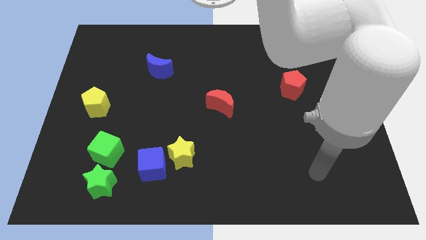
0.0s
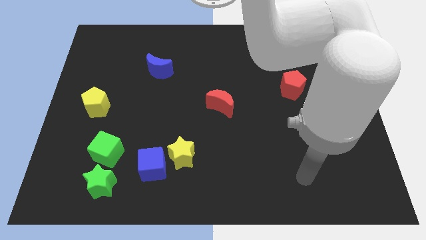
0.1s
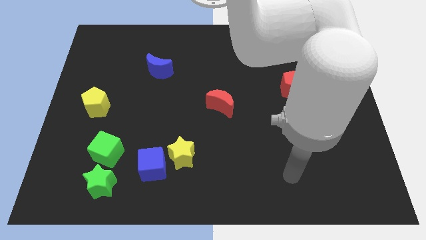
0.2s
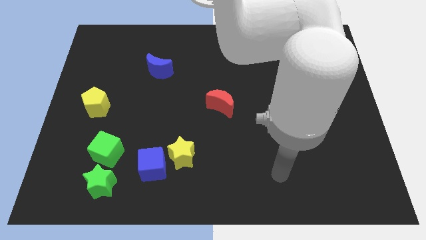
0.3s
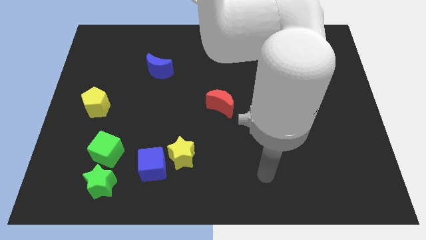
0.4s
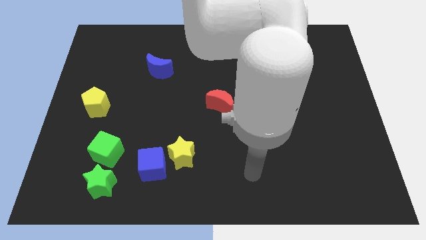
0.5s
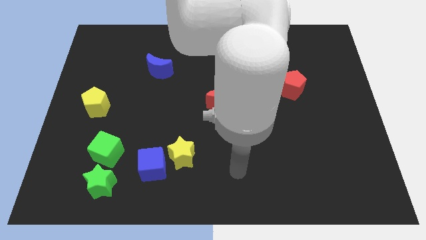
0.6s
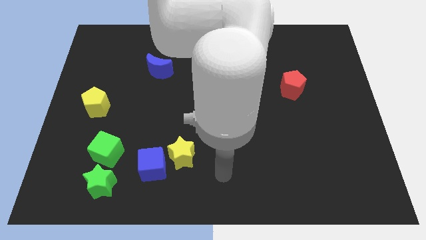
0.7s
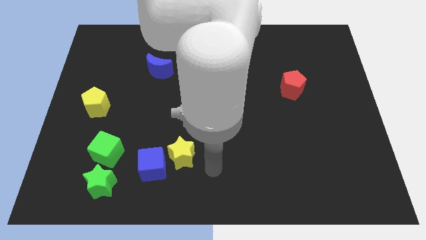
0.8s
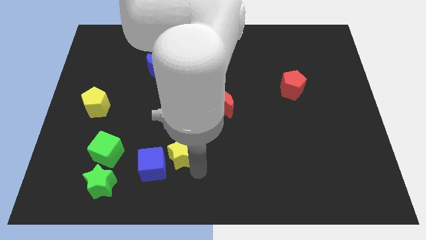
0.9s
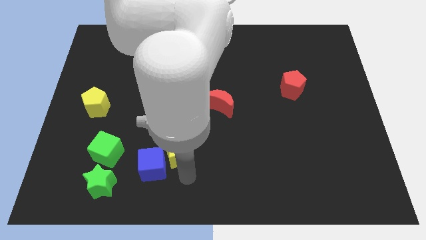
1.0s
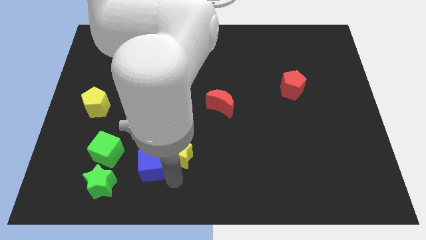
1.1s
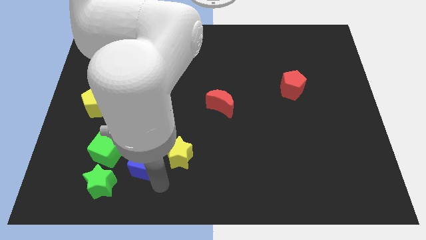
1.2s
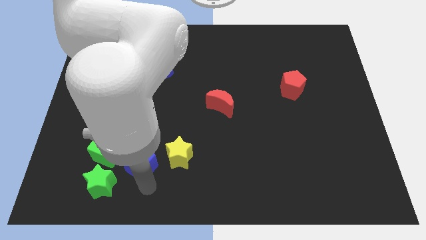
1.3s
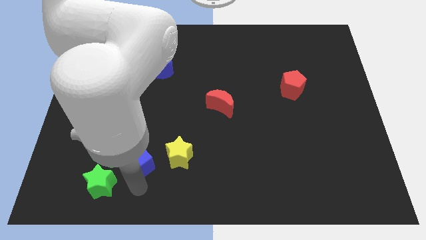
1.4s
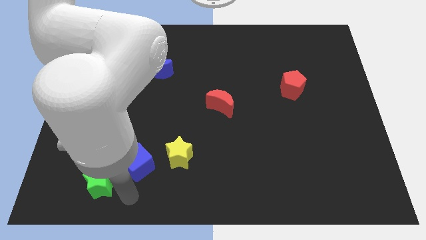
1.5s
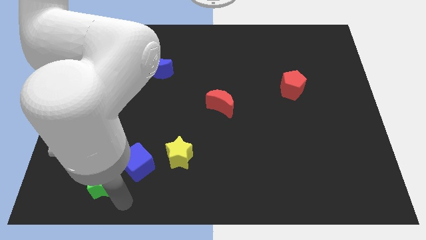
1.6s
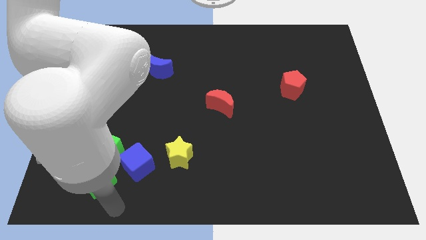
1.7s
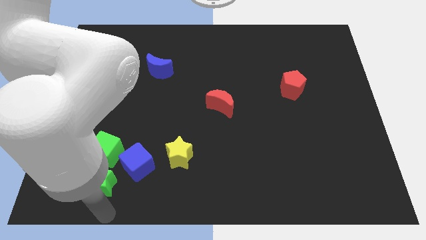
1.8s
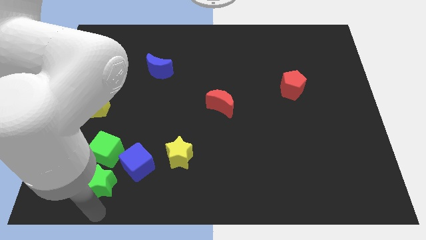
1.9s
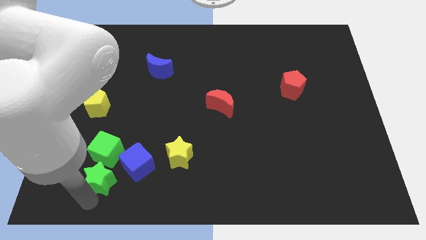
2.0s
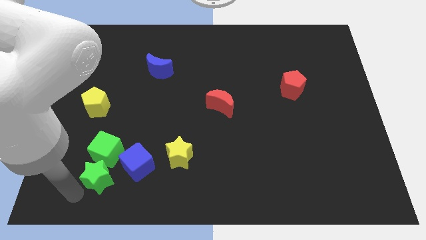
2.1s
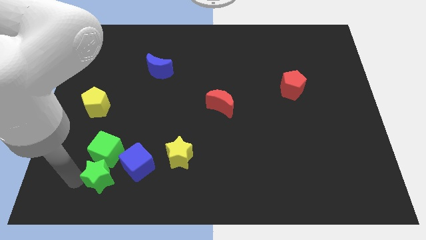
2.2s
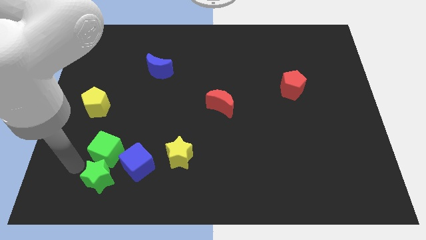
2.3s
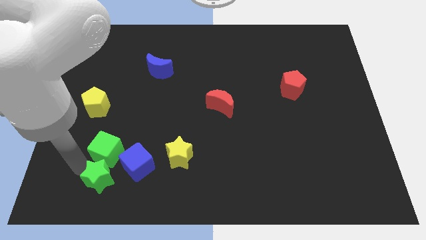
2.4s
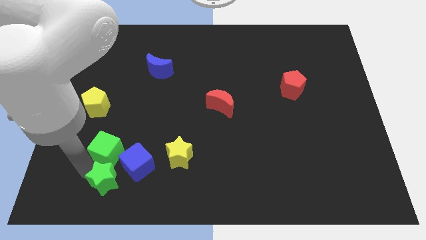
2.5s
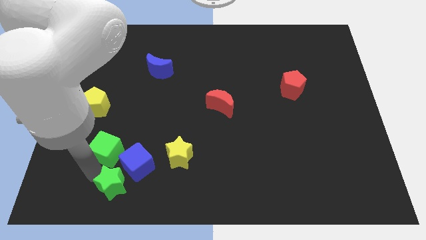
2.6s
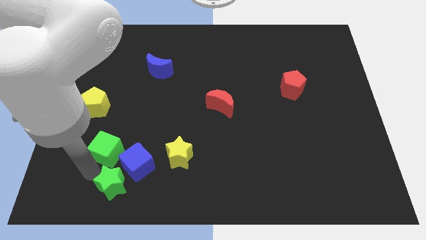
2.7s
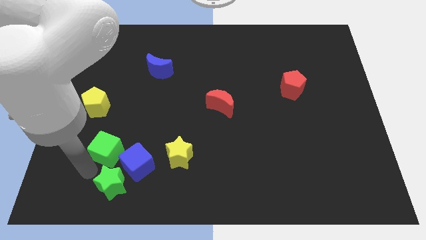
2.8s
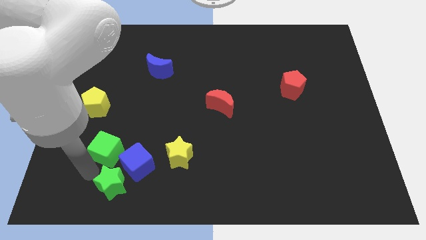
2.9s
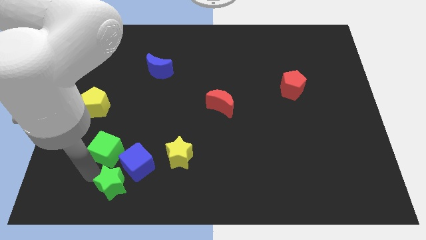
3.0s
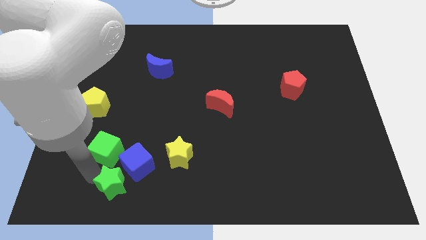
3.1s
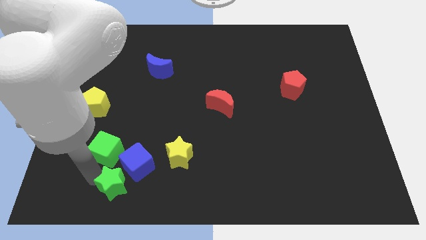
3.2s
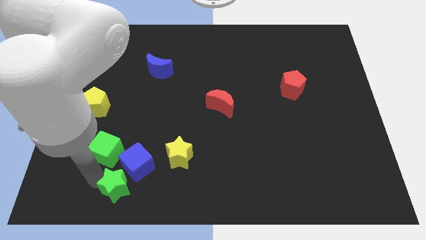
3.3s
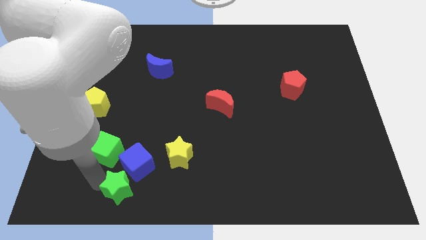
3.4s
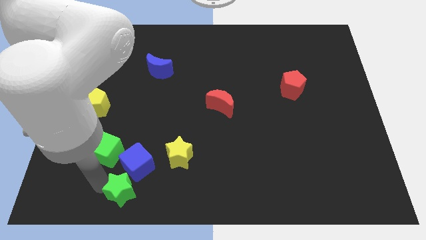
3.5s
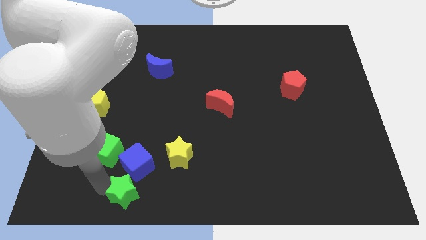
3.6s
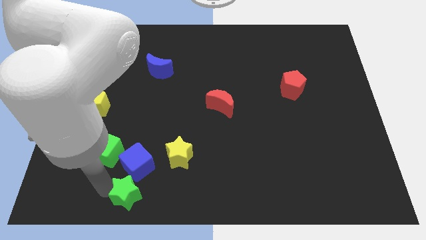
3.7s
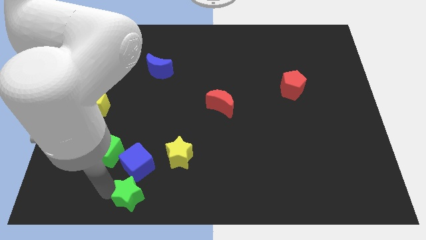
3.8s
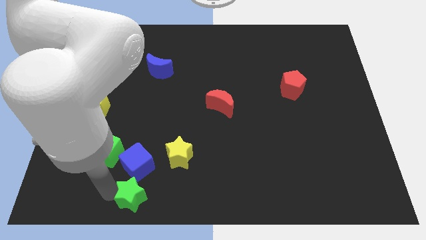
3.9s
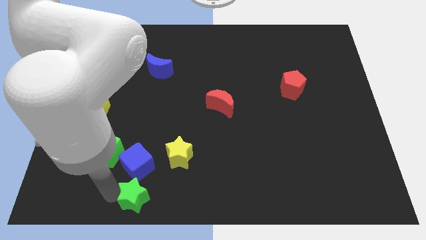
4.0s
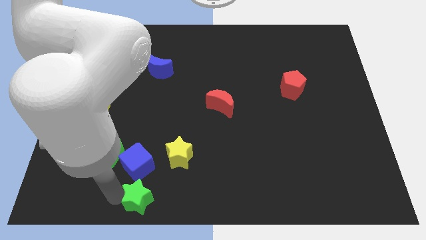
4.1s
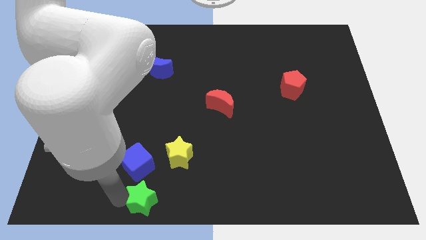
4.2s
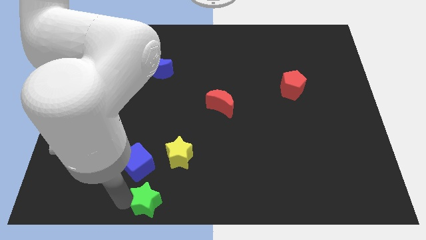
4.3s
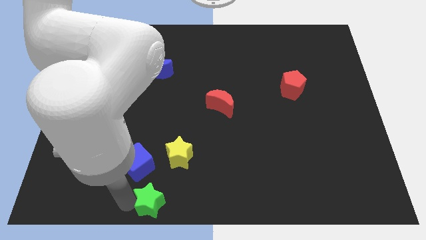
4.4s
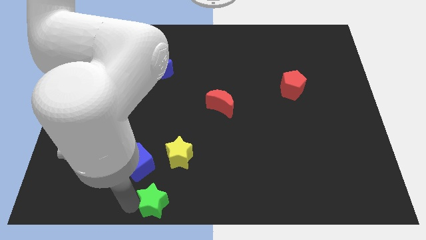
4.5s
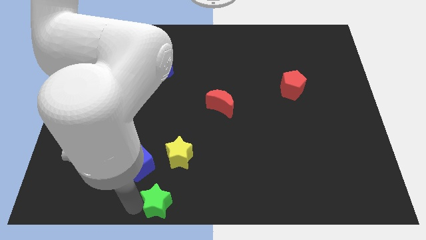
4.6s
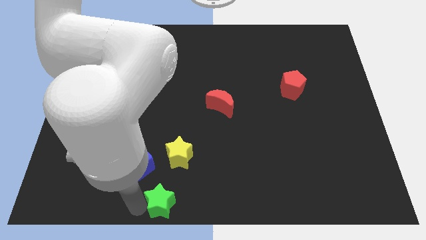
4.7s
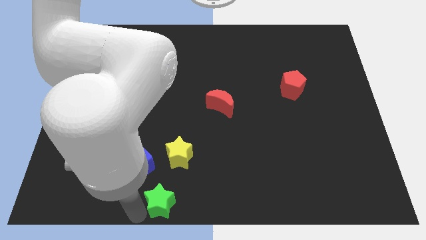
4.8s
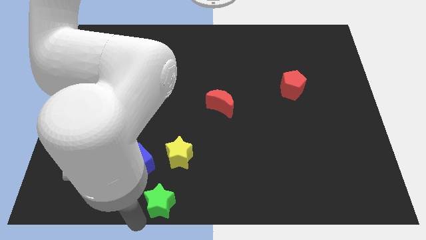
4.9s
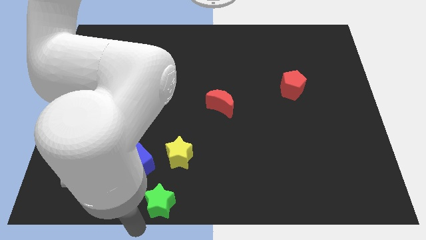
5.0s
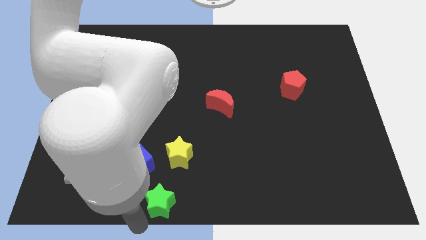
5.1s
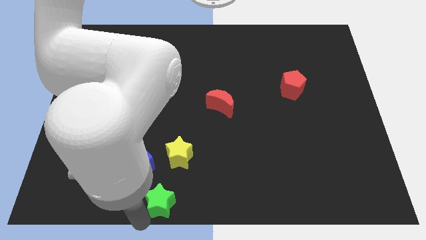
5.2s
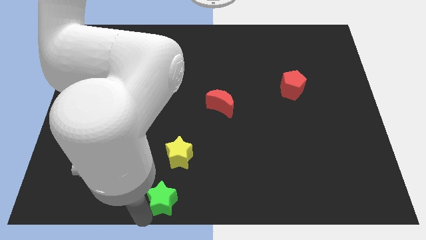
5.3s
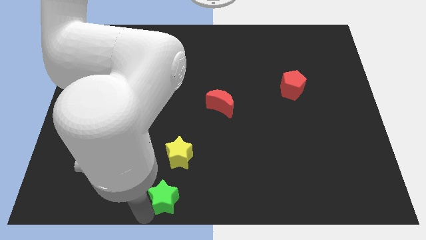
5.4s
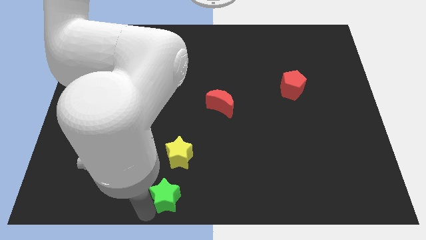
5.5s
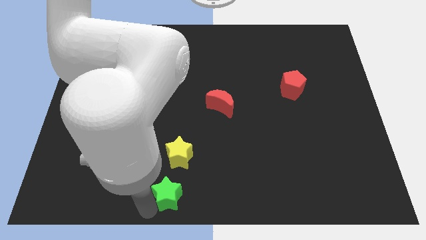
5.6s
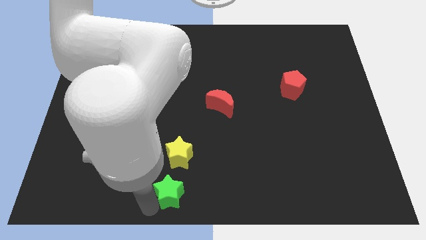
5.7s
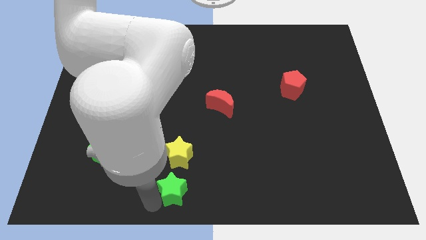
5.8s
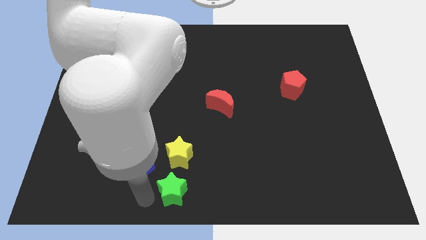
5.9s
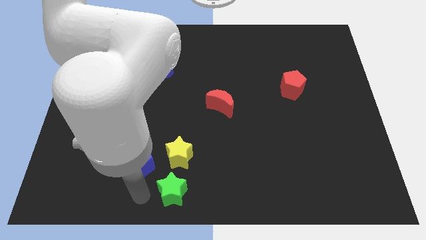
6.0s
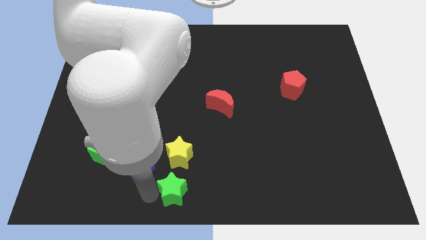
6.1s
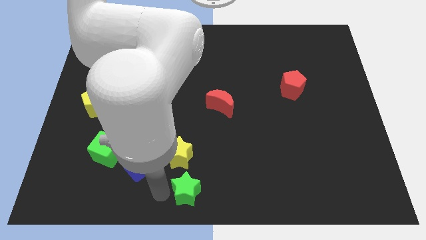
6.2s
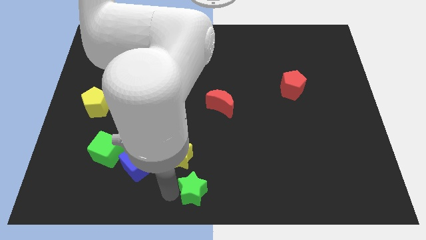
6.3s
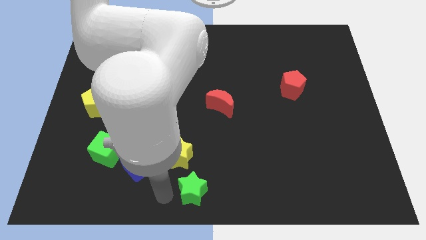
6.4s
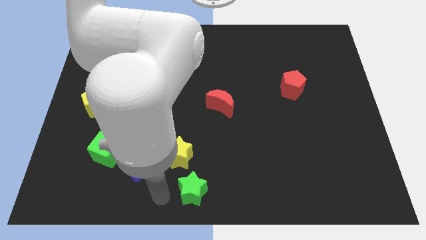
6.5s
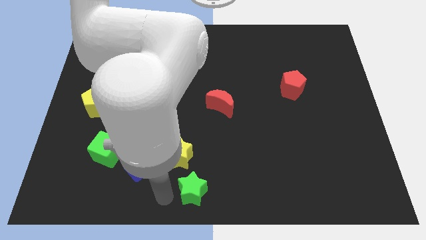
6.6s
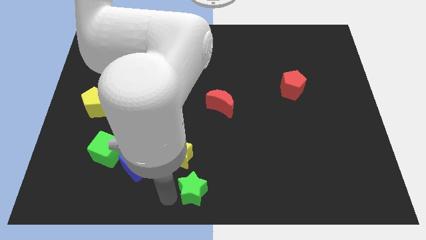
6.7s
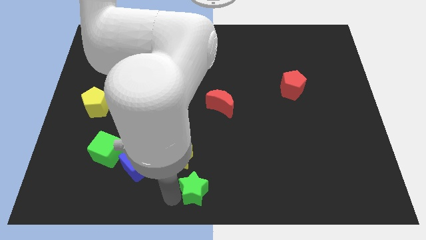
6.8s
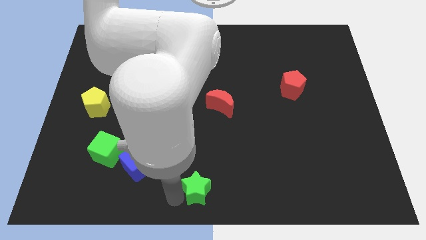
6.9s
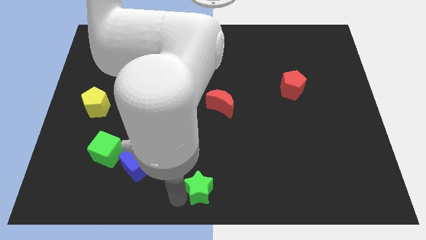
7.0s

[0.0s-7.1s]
move the green star to the right

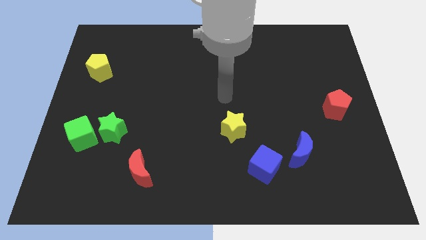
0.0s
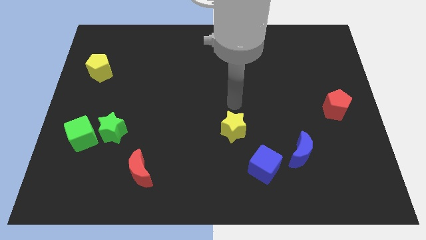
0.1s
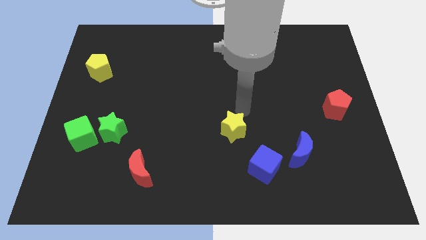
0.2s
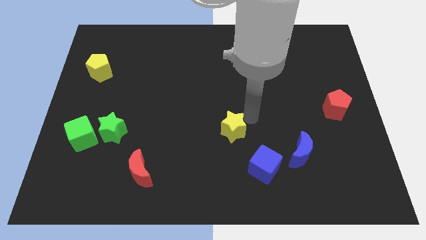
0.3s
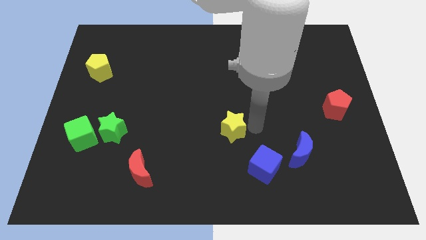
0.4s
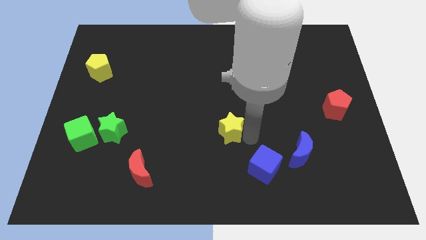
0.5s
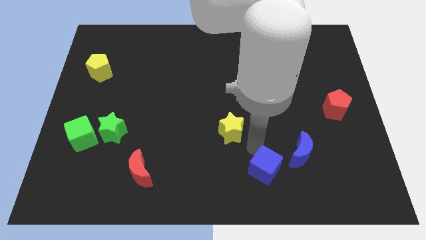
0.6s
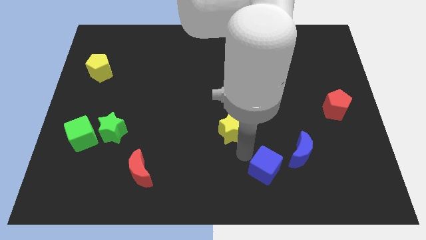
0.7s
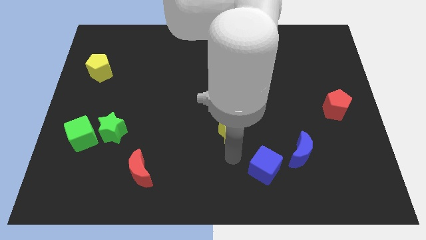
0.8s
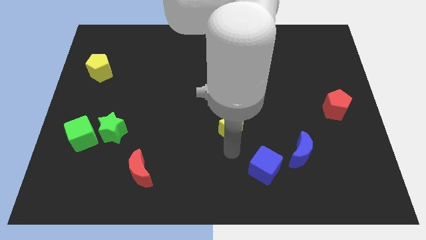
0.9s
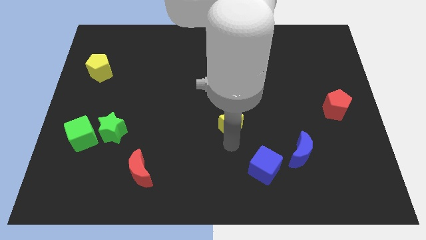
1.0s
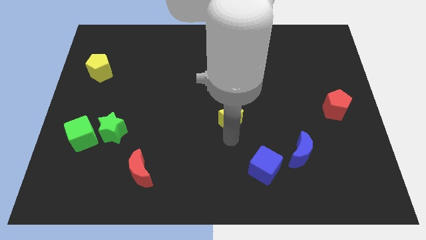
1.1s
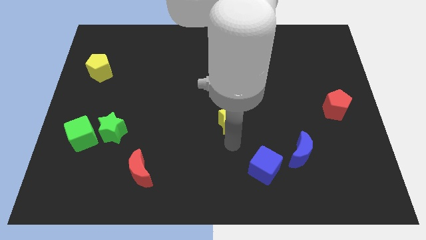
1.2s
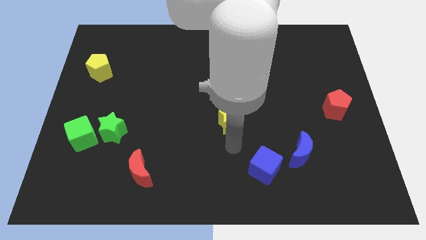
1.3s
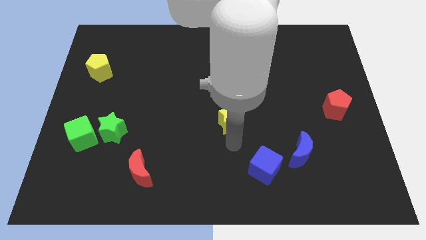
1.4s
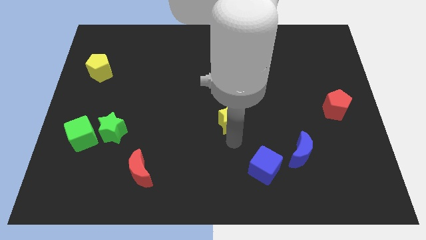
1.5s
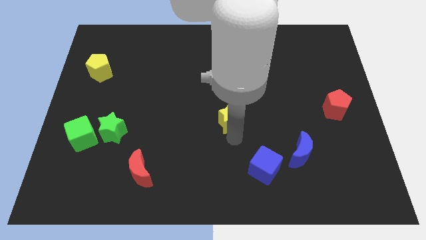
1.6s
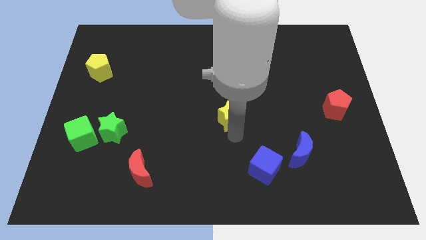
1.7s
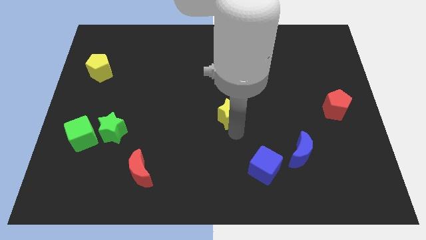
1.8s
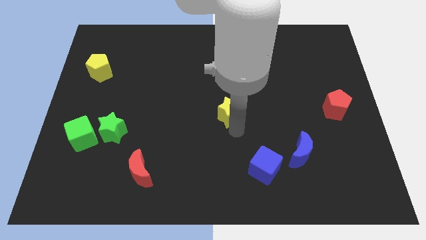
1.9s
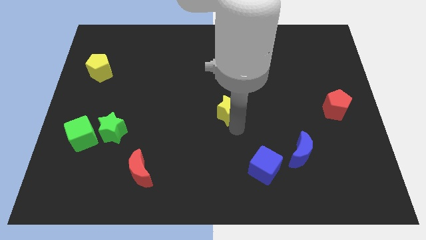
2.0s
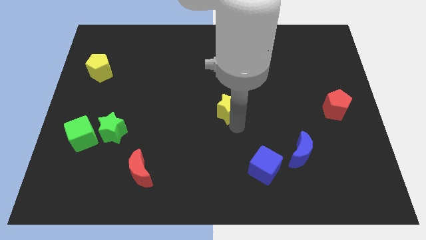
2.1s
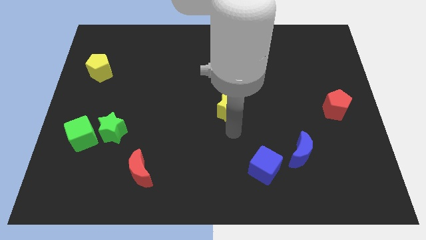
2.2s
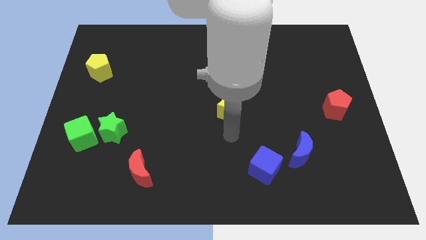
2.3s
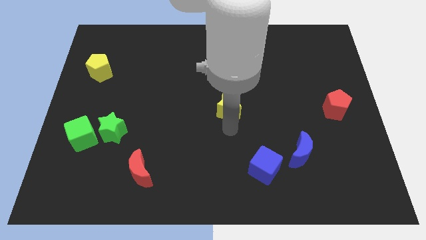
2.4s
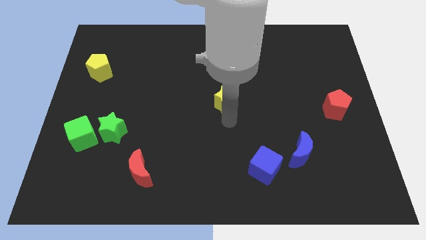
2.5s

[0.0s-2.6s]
slightly move the yellow star upwards
